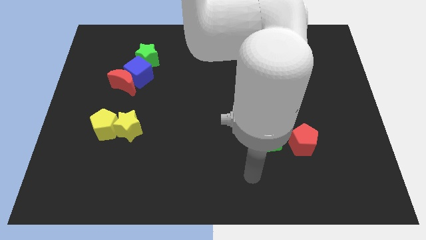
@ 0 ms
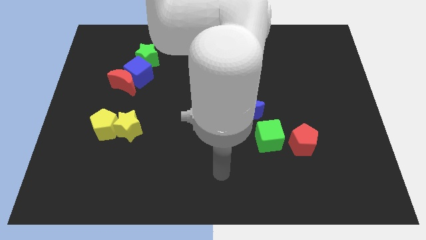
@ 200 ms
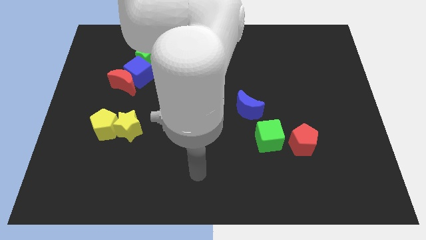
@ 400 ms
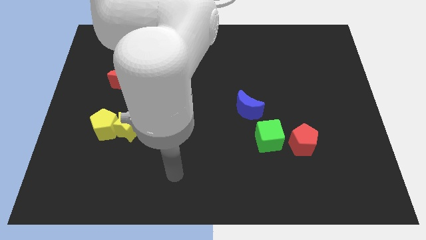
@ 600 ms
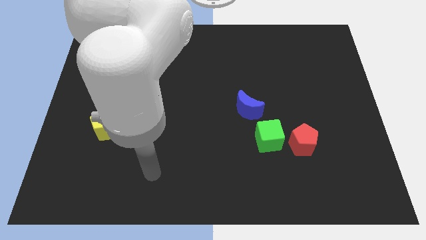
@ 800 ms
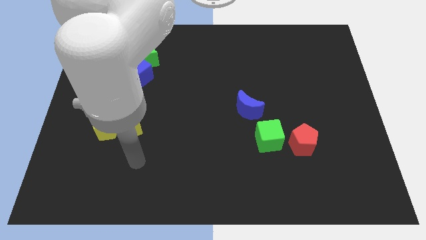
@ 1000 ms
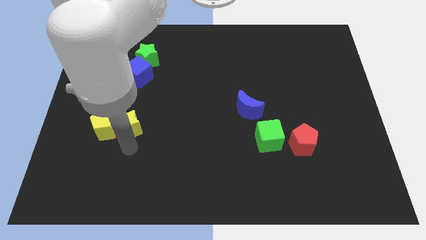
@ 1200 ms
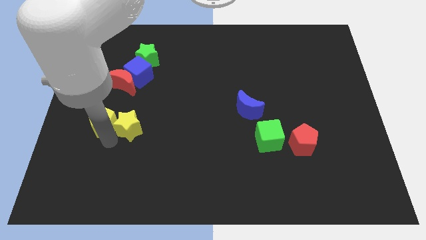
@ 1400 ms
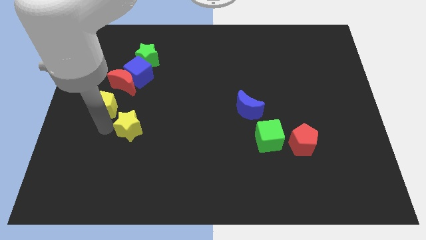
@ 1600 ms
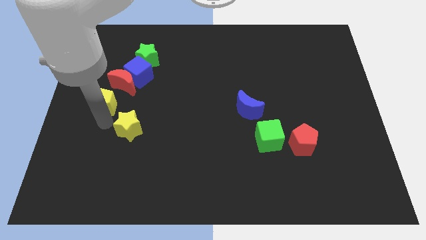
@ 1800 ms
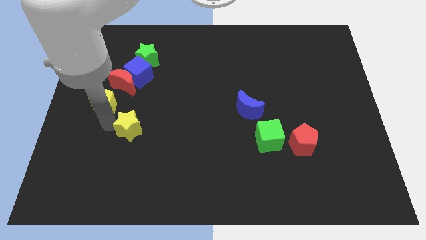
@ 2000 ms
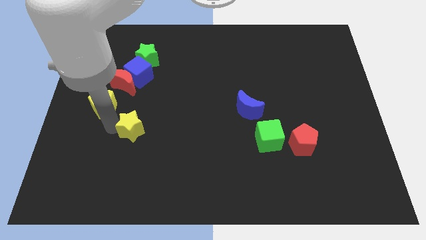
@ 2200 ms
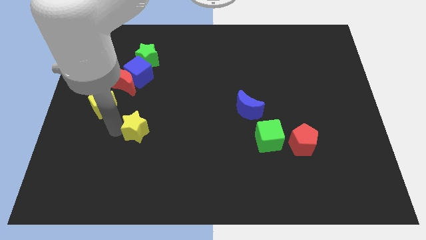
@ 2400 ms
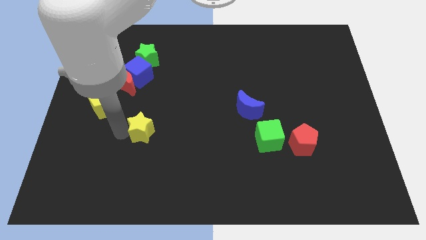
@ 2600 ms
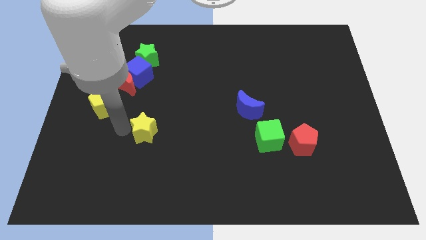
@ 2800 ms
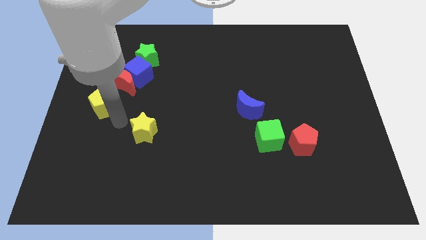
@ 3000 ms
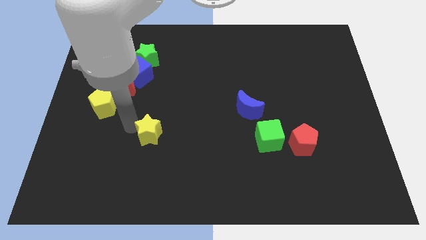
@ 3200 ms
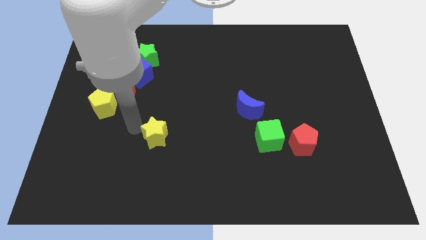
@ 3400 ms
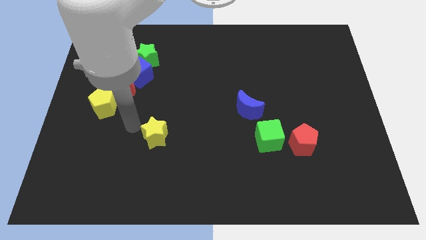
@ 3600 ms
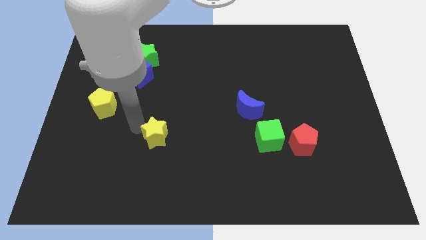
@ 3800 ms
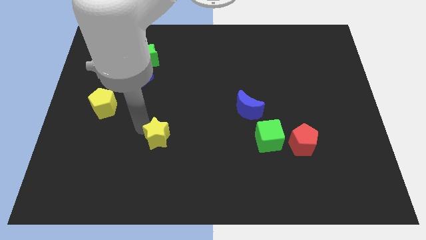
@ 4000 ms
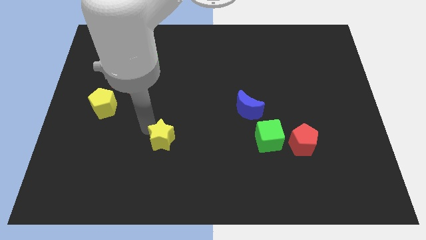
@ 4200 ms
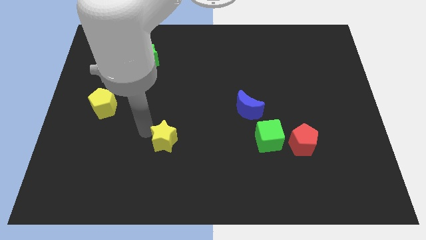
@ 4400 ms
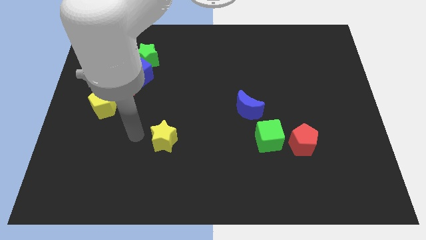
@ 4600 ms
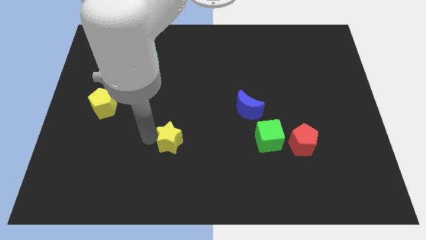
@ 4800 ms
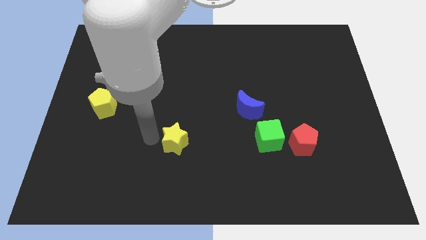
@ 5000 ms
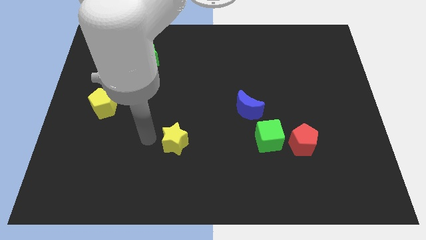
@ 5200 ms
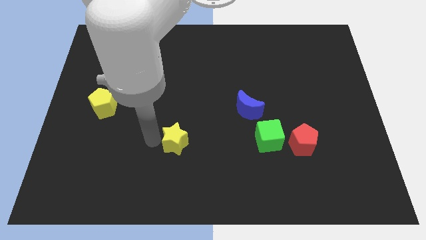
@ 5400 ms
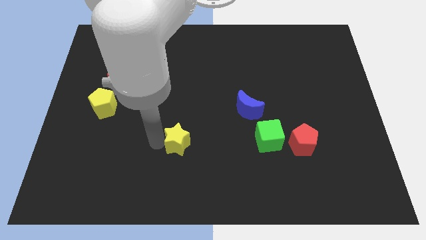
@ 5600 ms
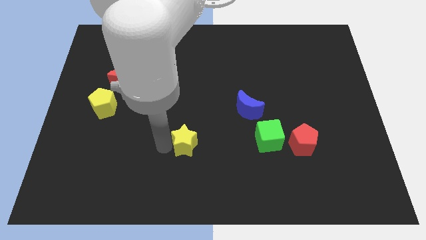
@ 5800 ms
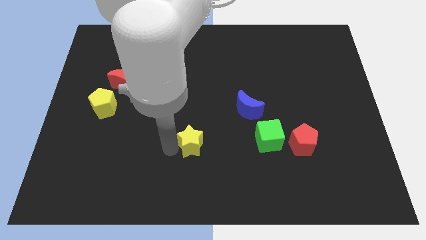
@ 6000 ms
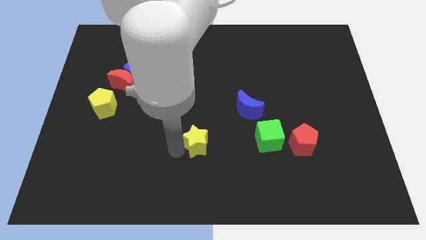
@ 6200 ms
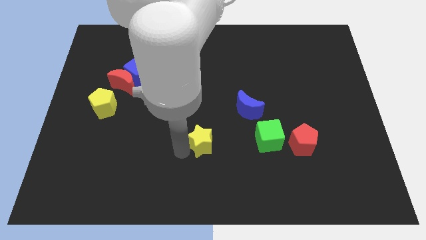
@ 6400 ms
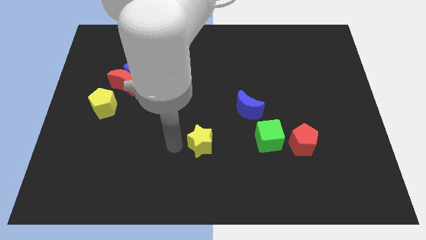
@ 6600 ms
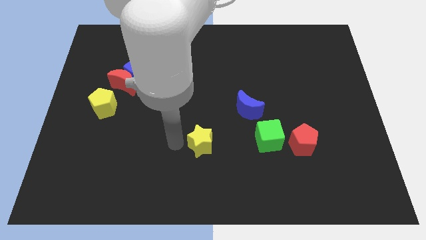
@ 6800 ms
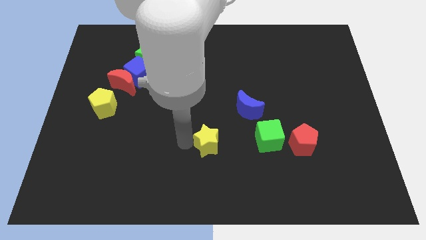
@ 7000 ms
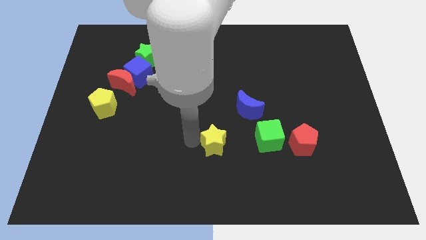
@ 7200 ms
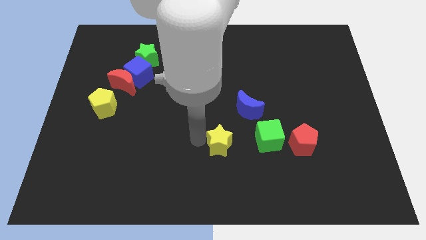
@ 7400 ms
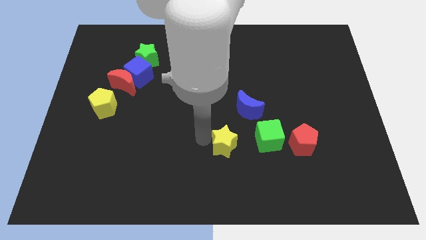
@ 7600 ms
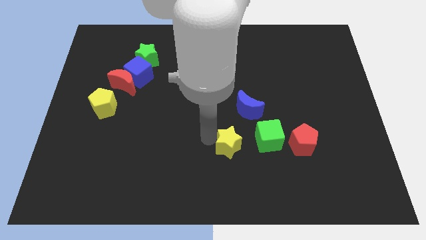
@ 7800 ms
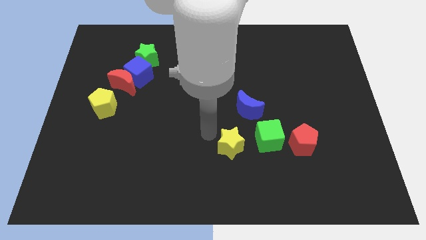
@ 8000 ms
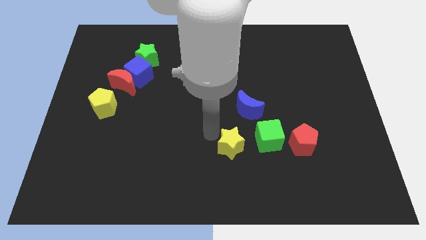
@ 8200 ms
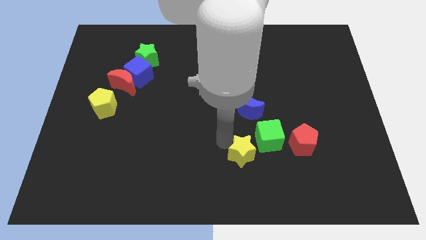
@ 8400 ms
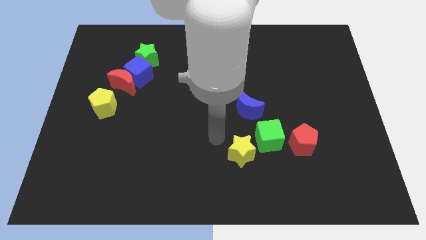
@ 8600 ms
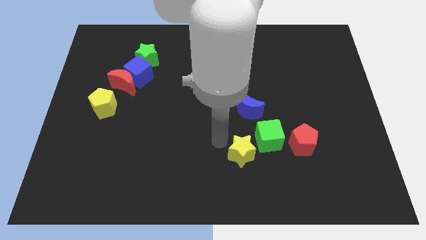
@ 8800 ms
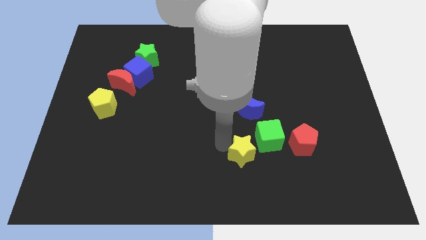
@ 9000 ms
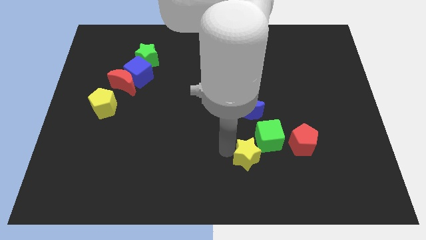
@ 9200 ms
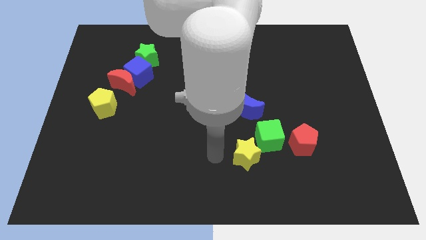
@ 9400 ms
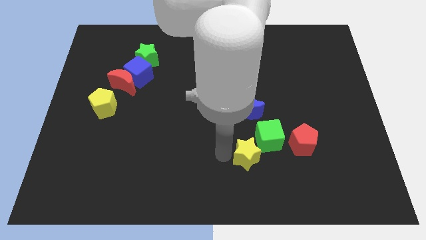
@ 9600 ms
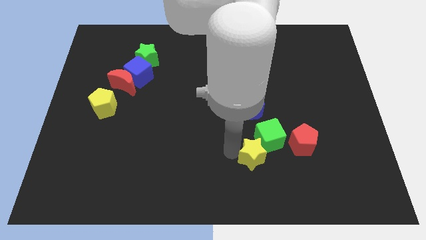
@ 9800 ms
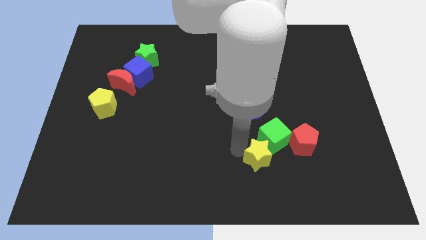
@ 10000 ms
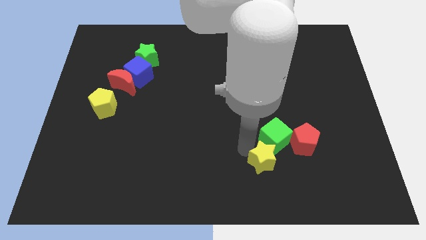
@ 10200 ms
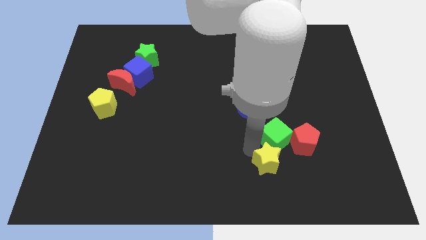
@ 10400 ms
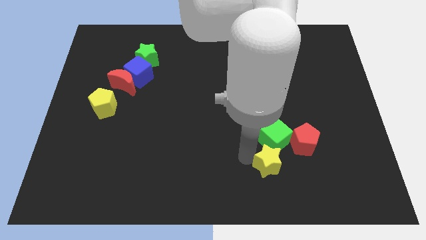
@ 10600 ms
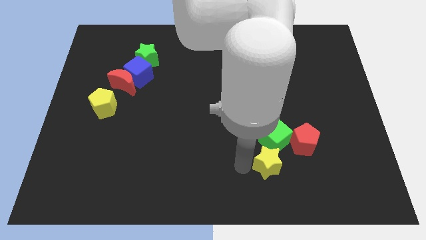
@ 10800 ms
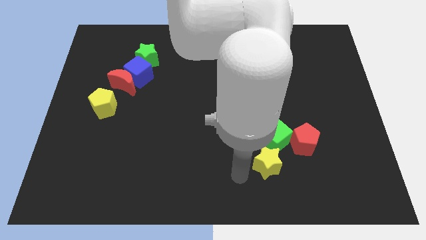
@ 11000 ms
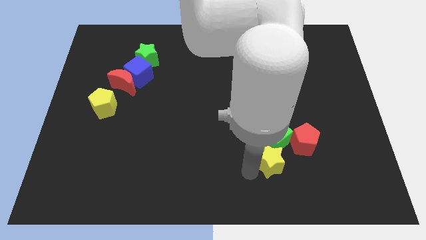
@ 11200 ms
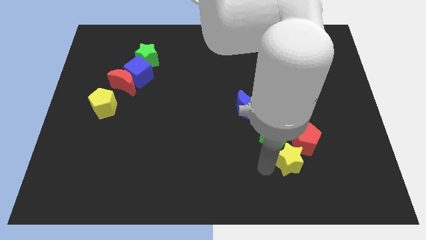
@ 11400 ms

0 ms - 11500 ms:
move the yellow star to the red pentagon

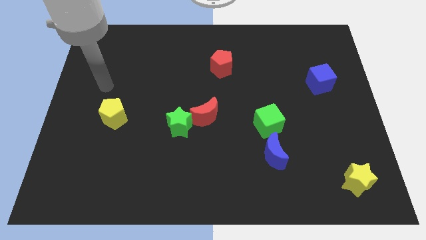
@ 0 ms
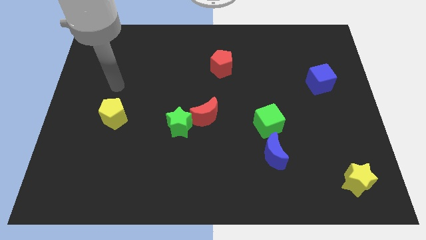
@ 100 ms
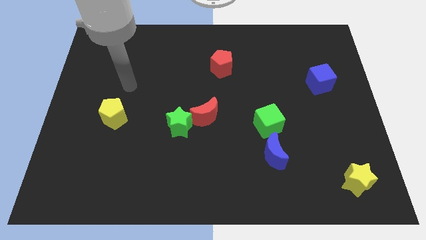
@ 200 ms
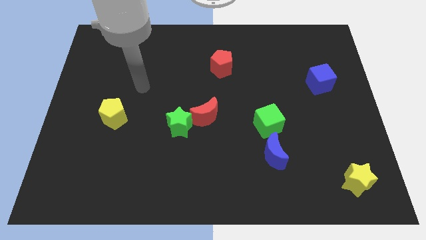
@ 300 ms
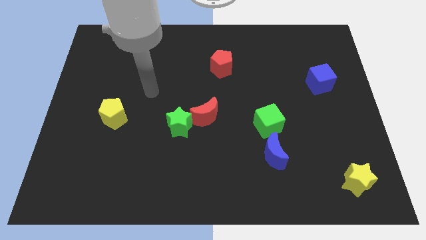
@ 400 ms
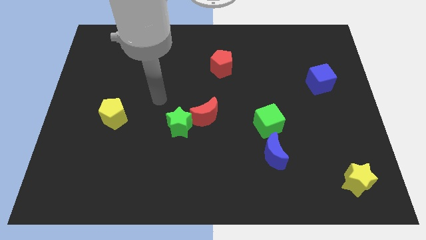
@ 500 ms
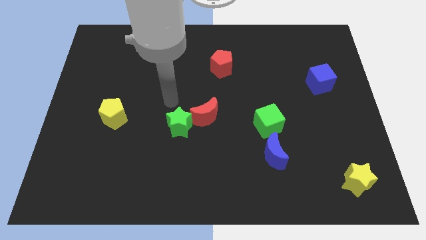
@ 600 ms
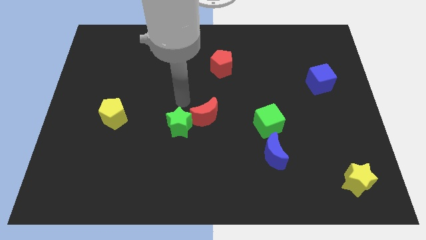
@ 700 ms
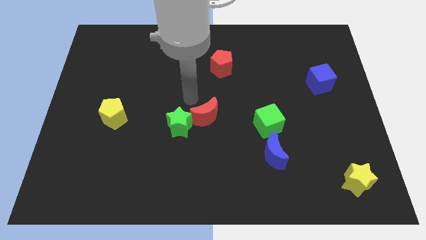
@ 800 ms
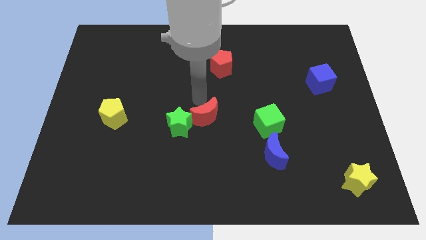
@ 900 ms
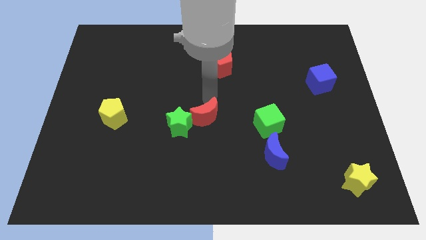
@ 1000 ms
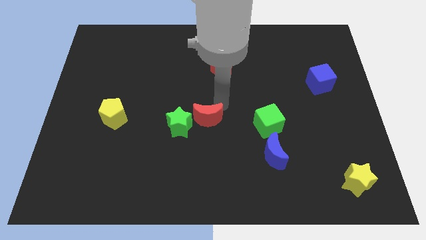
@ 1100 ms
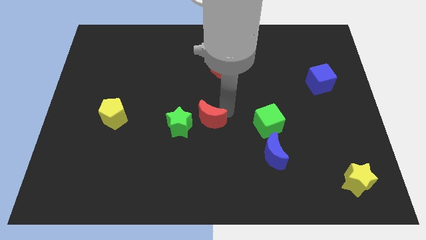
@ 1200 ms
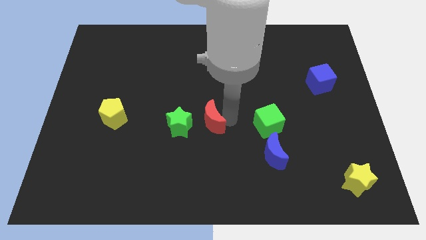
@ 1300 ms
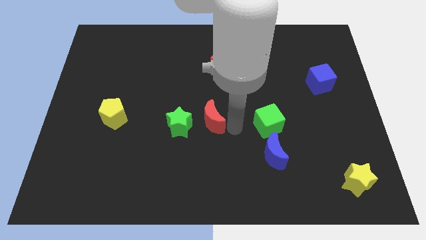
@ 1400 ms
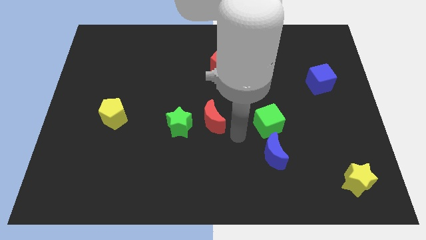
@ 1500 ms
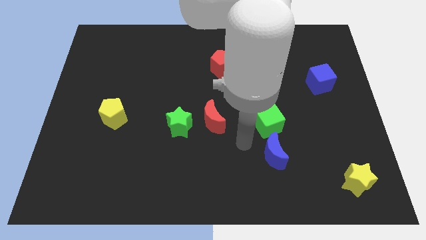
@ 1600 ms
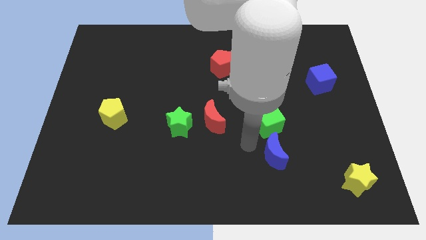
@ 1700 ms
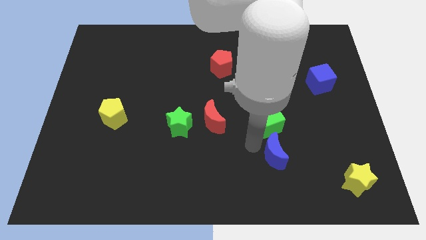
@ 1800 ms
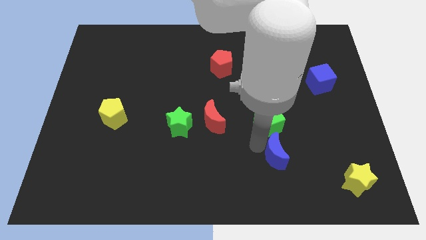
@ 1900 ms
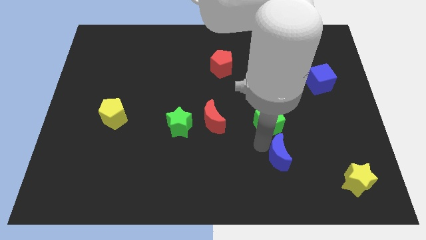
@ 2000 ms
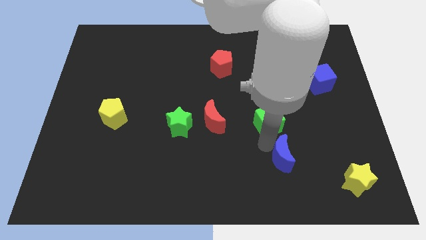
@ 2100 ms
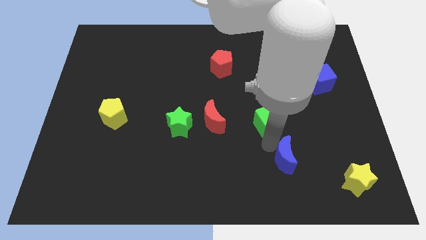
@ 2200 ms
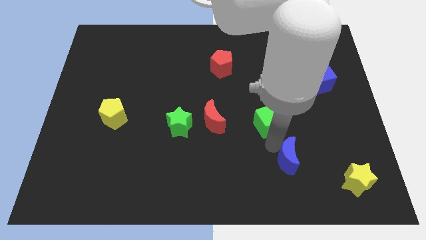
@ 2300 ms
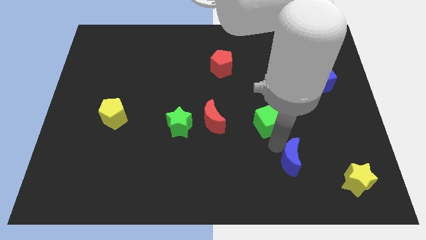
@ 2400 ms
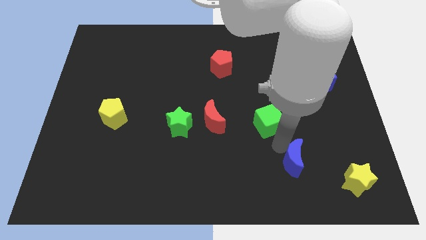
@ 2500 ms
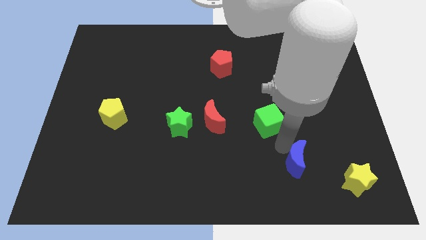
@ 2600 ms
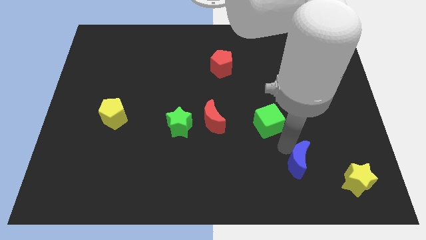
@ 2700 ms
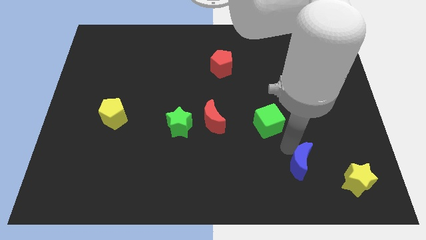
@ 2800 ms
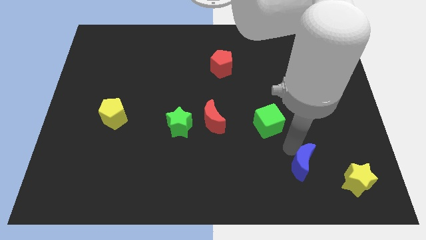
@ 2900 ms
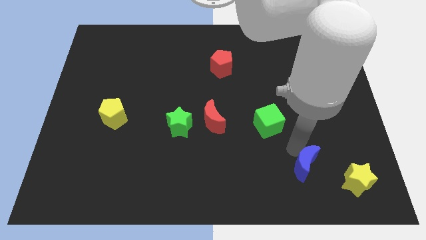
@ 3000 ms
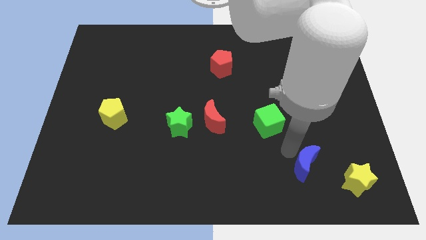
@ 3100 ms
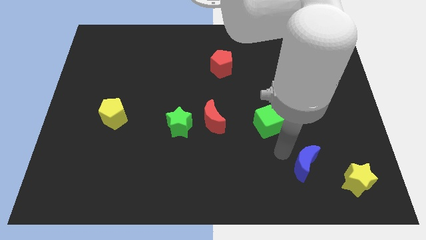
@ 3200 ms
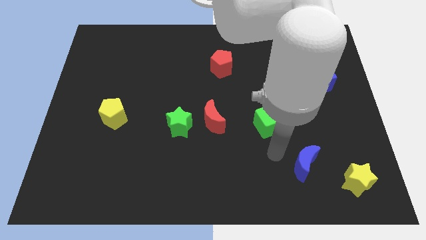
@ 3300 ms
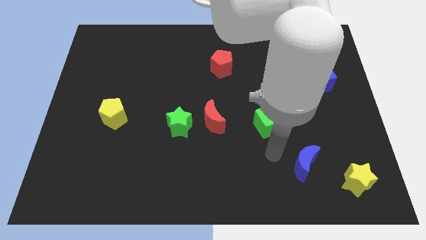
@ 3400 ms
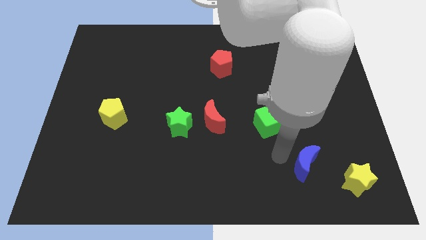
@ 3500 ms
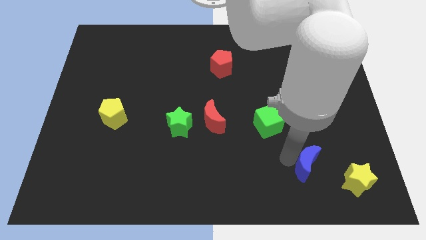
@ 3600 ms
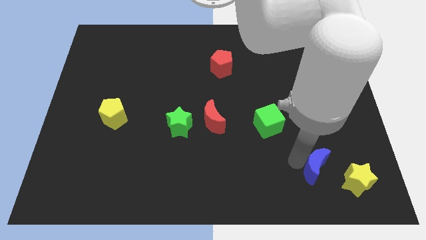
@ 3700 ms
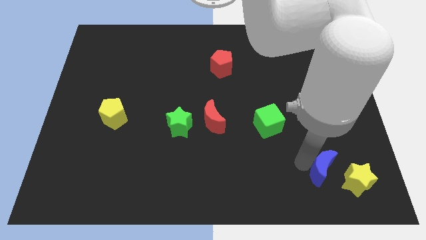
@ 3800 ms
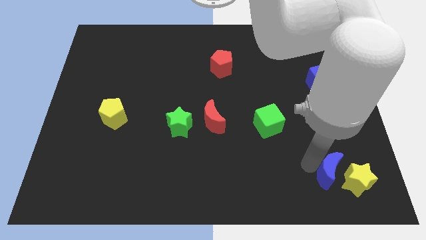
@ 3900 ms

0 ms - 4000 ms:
move the blue moon to the yellow star
